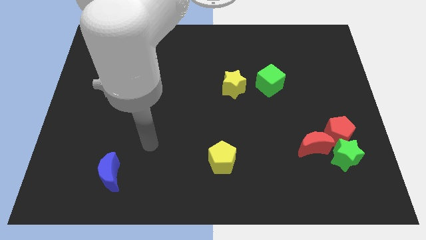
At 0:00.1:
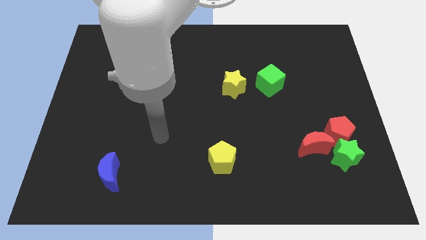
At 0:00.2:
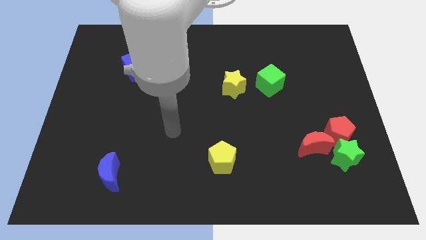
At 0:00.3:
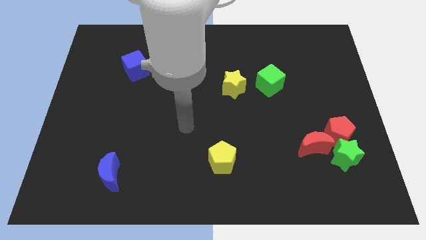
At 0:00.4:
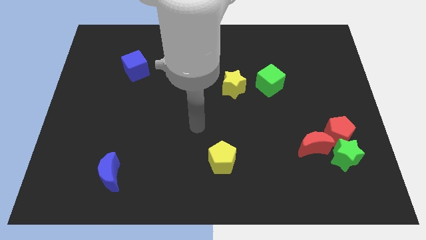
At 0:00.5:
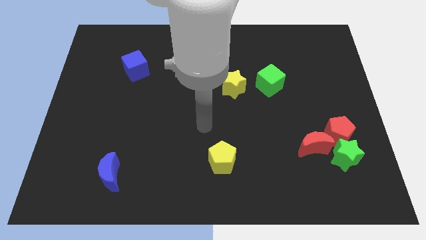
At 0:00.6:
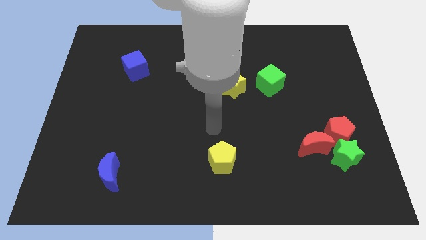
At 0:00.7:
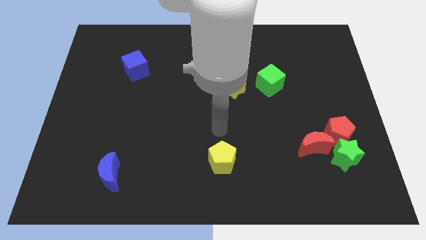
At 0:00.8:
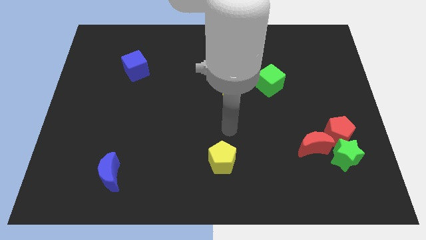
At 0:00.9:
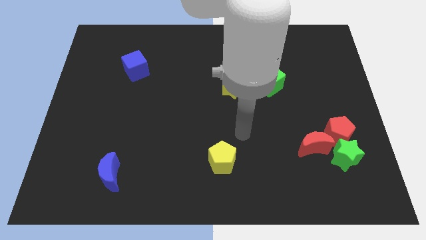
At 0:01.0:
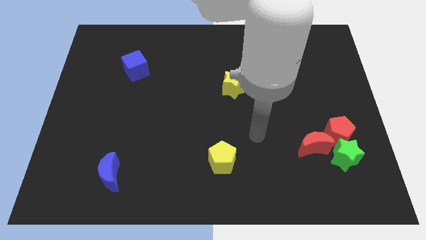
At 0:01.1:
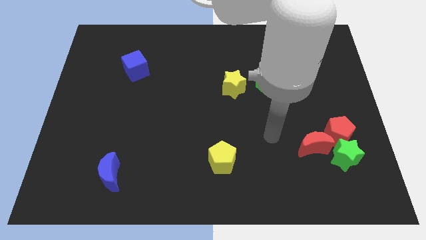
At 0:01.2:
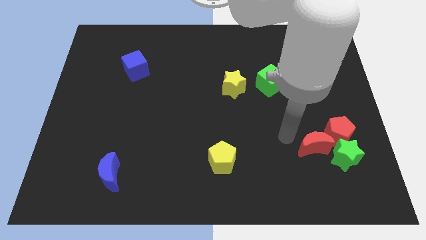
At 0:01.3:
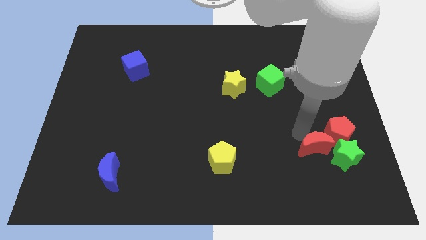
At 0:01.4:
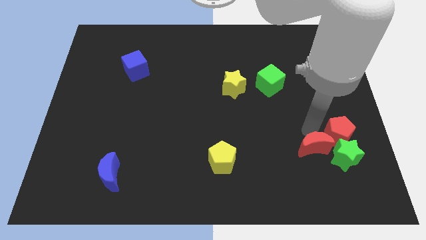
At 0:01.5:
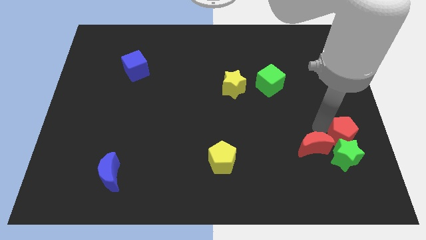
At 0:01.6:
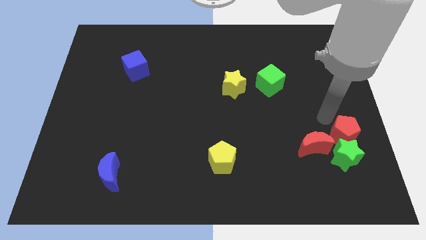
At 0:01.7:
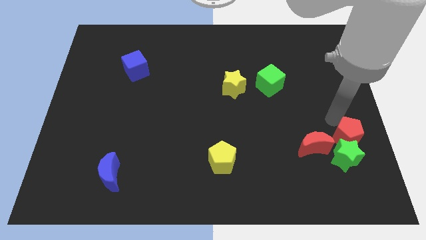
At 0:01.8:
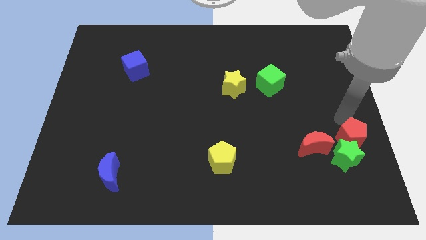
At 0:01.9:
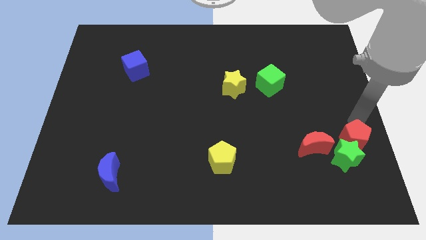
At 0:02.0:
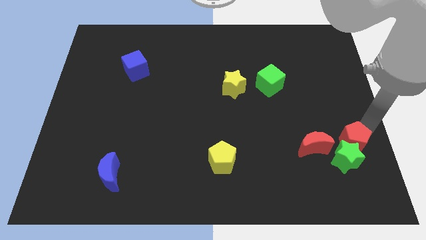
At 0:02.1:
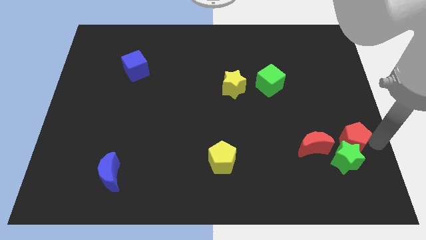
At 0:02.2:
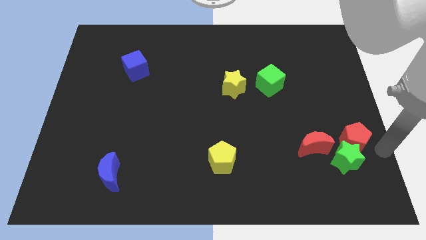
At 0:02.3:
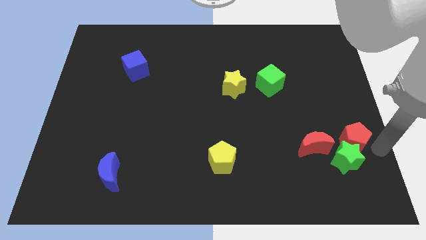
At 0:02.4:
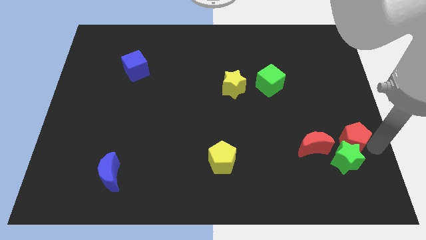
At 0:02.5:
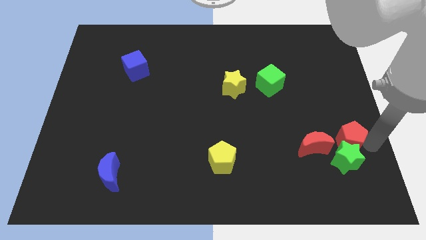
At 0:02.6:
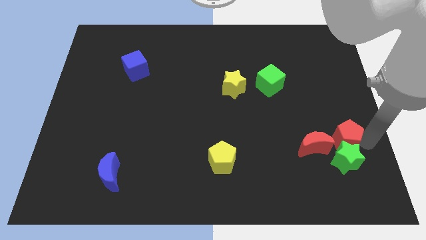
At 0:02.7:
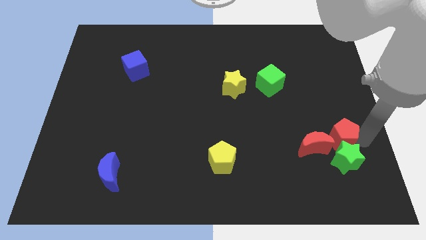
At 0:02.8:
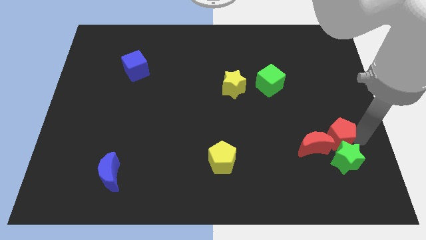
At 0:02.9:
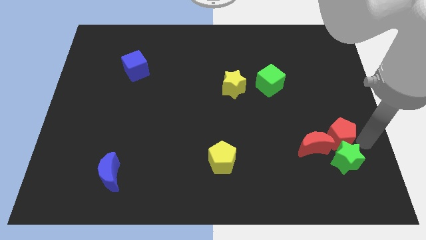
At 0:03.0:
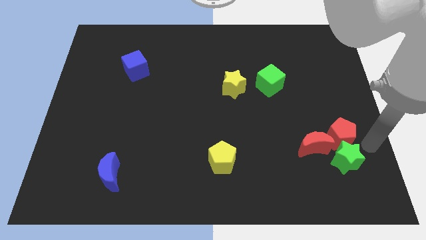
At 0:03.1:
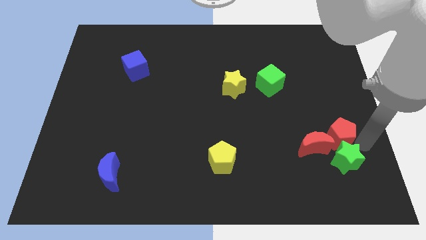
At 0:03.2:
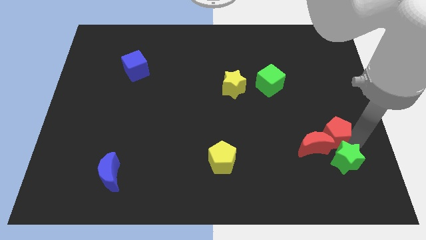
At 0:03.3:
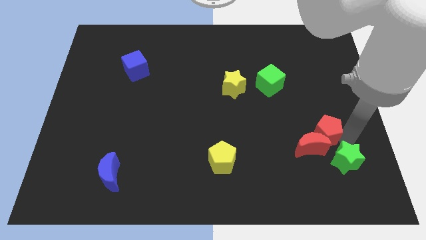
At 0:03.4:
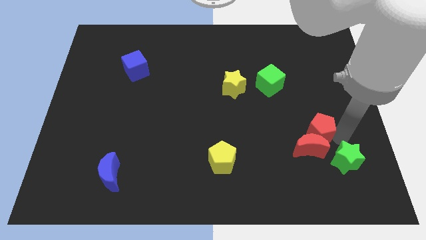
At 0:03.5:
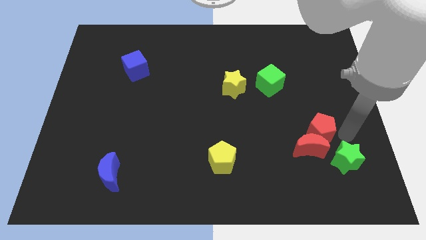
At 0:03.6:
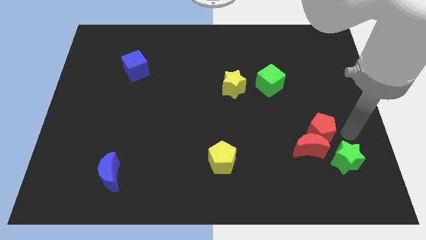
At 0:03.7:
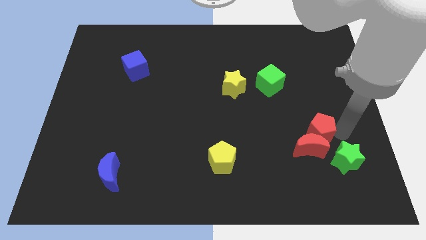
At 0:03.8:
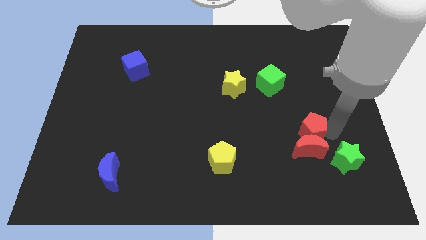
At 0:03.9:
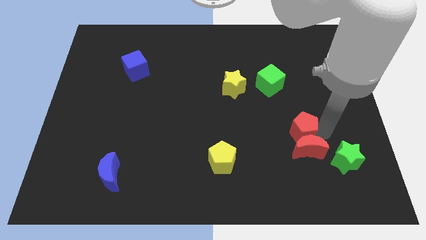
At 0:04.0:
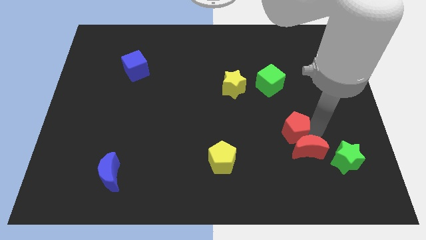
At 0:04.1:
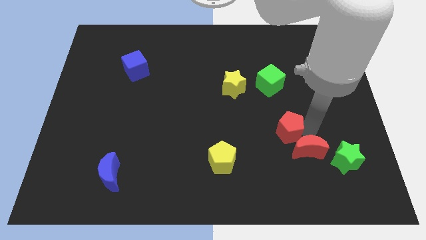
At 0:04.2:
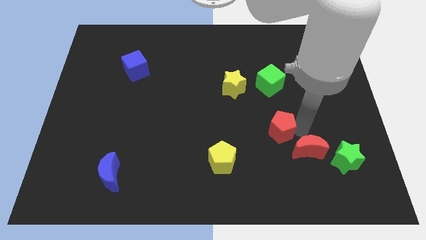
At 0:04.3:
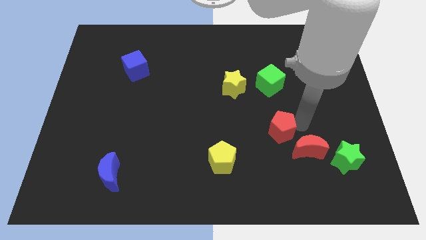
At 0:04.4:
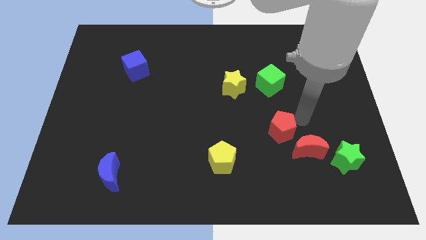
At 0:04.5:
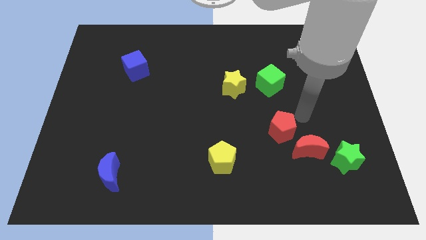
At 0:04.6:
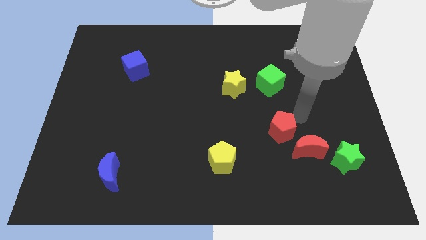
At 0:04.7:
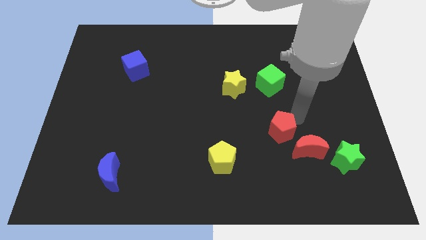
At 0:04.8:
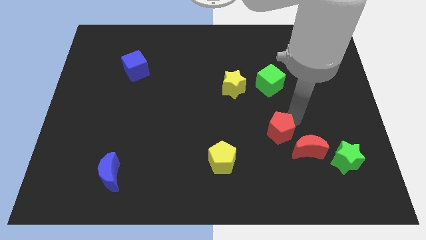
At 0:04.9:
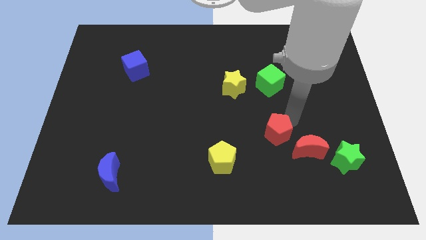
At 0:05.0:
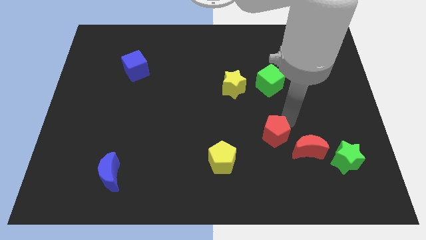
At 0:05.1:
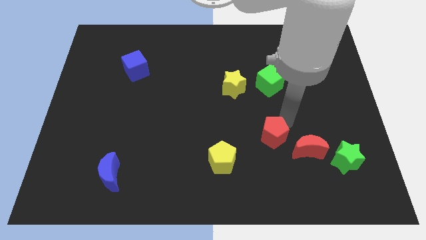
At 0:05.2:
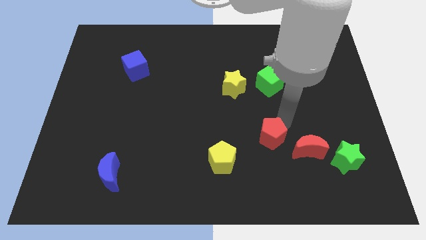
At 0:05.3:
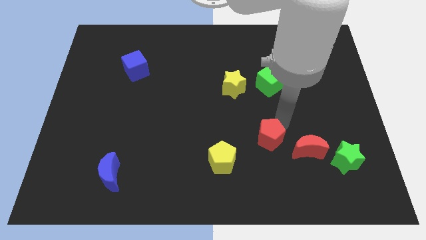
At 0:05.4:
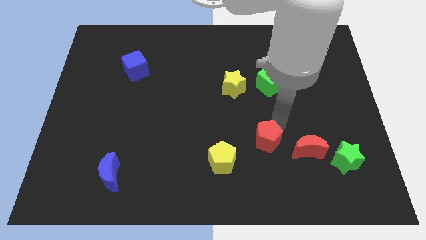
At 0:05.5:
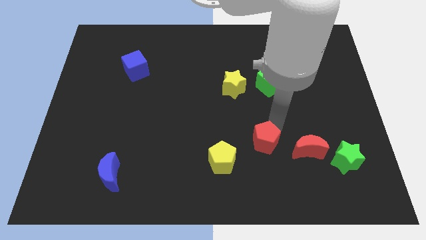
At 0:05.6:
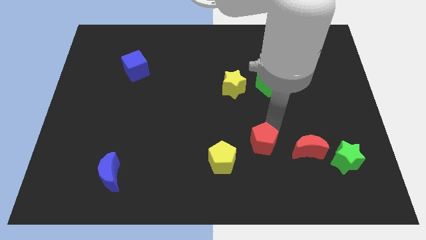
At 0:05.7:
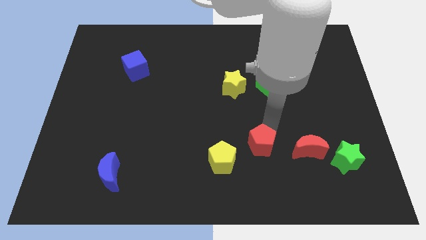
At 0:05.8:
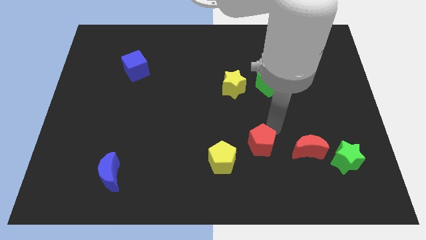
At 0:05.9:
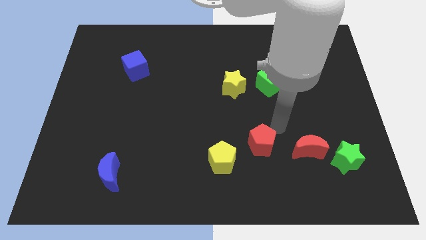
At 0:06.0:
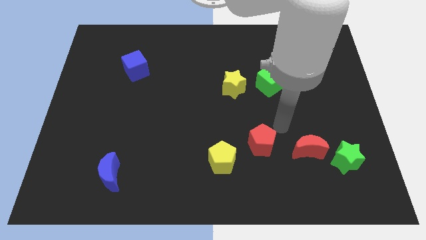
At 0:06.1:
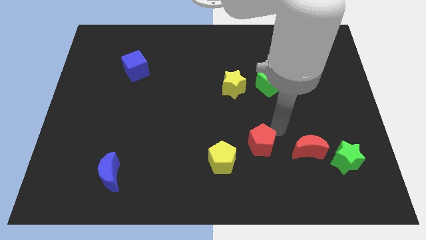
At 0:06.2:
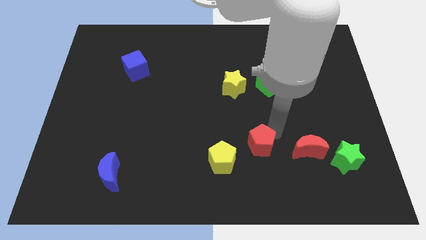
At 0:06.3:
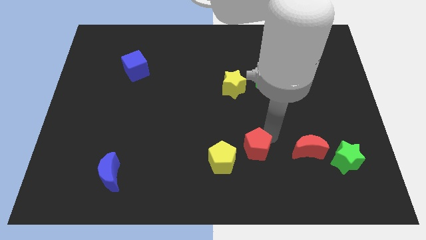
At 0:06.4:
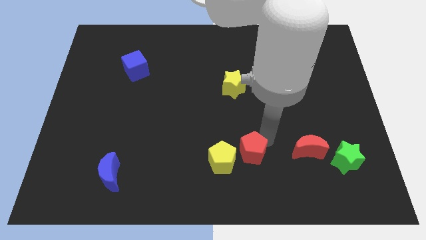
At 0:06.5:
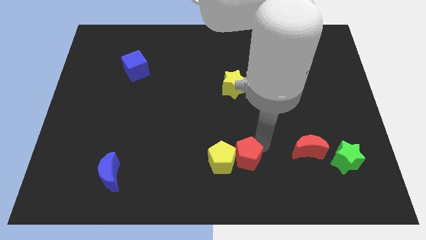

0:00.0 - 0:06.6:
push the red pentagon next to the yellow pentagon
